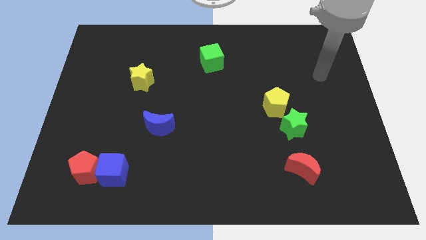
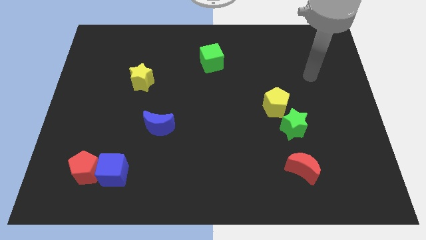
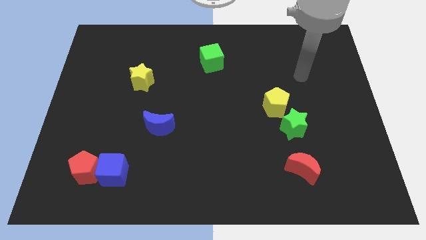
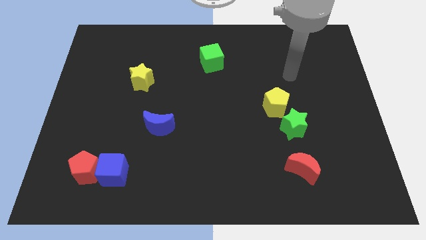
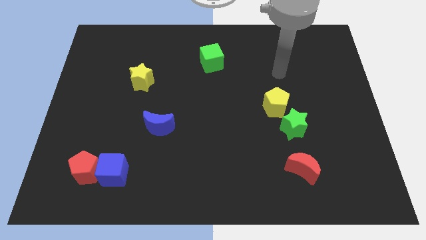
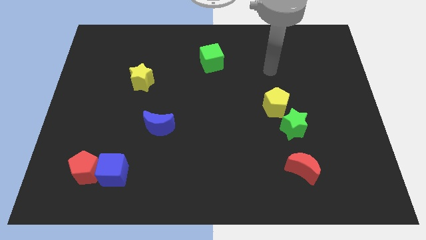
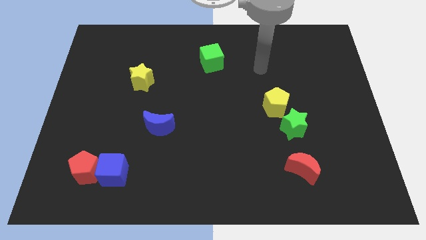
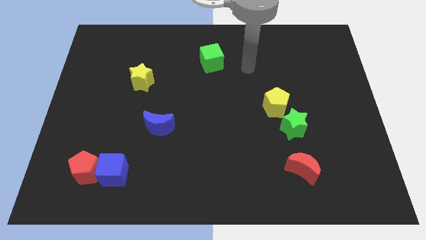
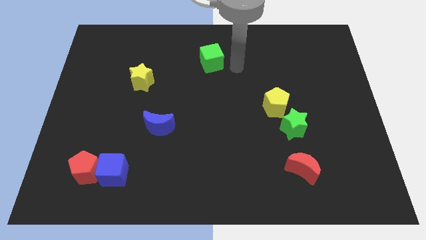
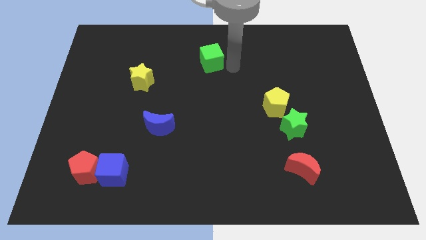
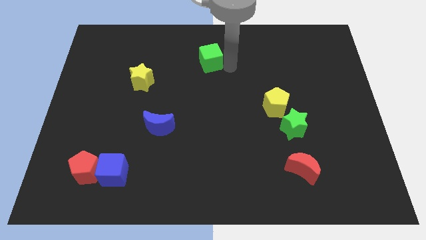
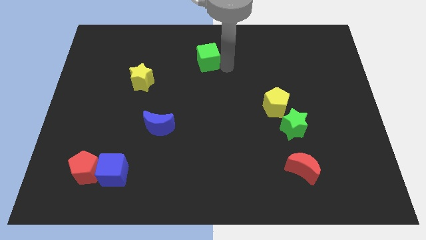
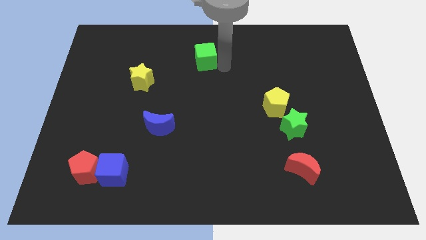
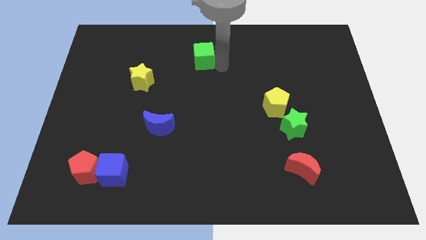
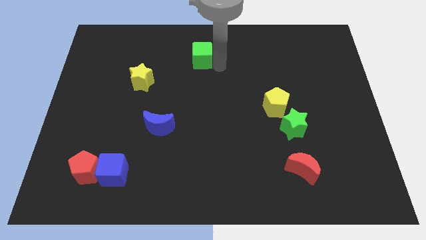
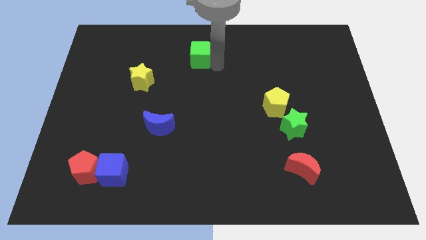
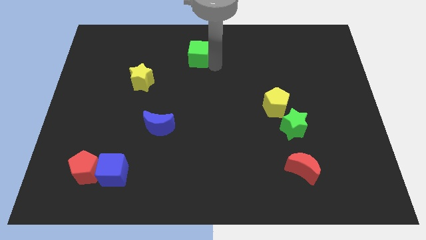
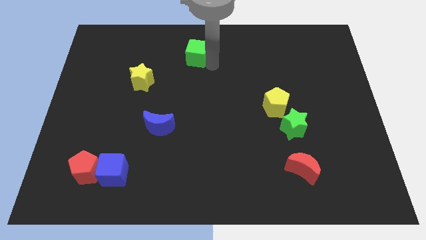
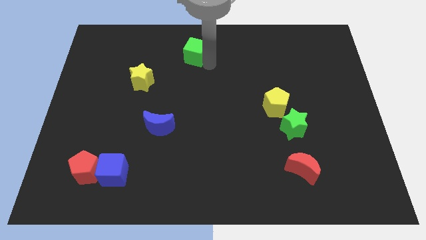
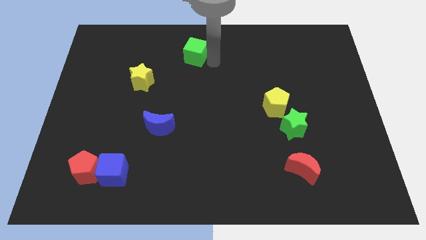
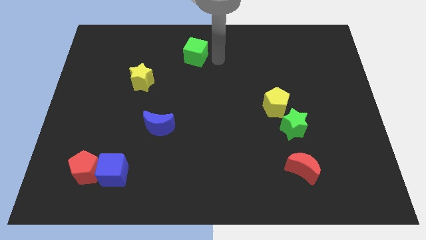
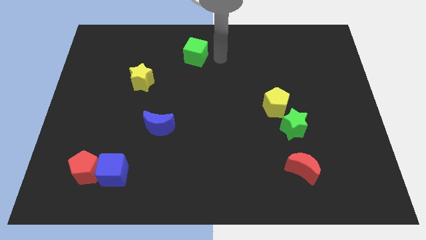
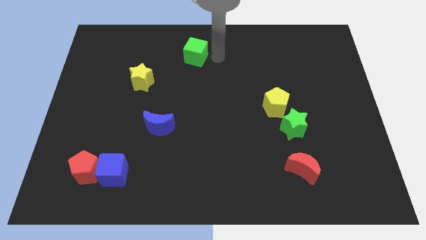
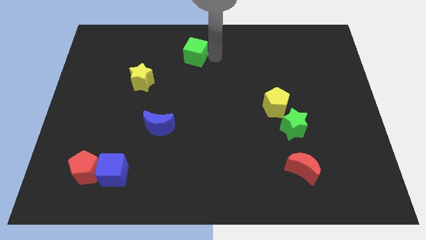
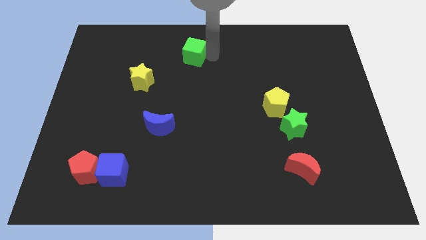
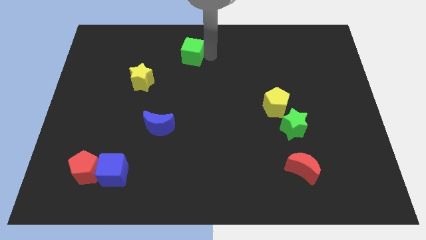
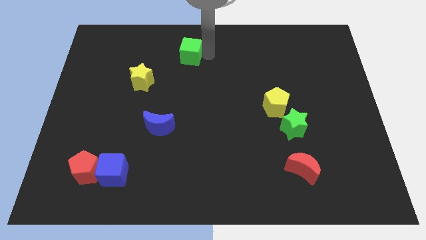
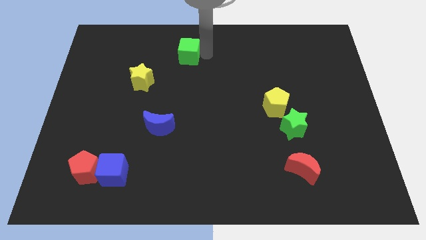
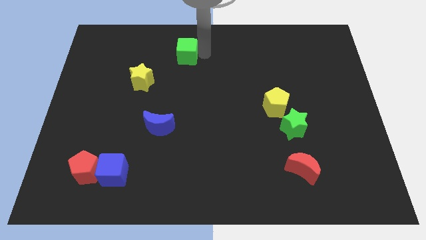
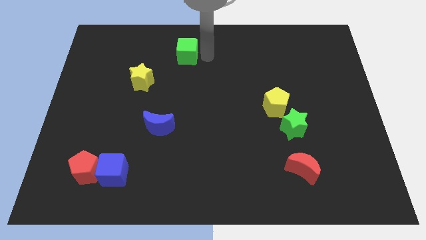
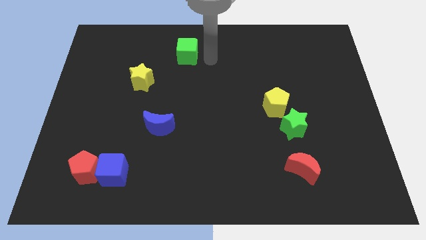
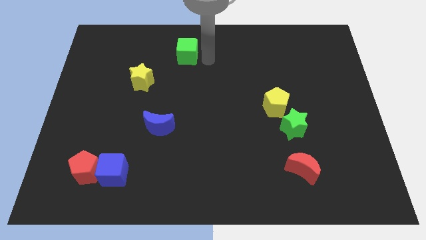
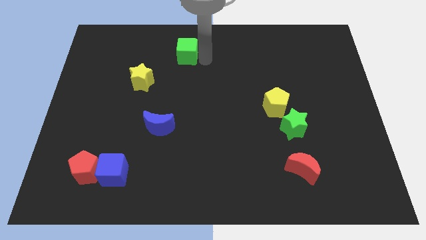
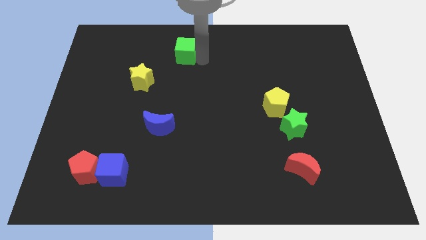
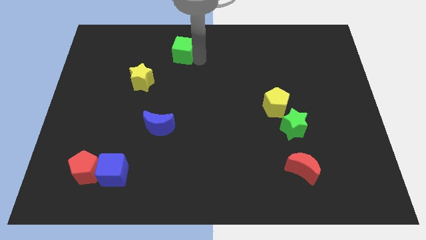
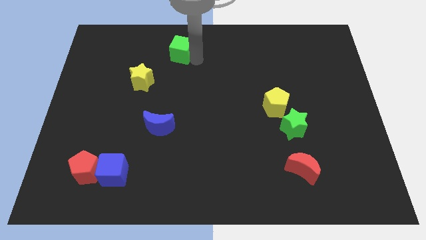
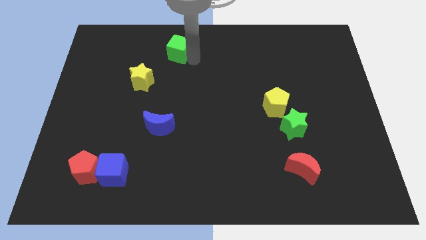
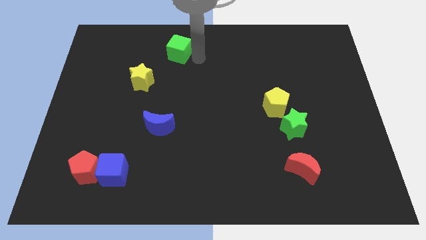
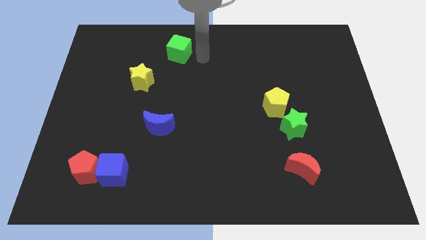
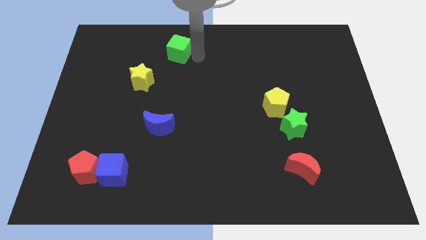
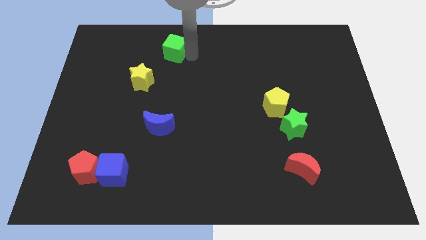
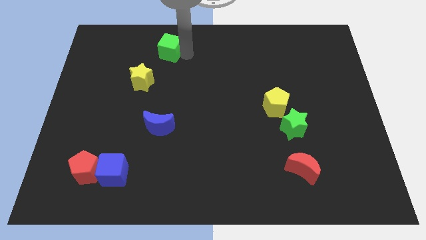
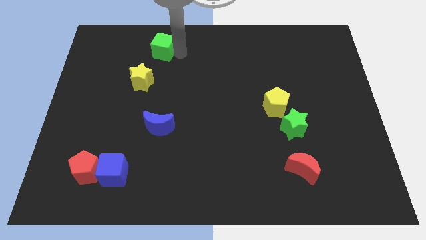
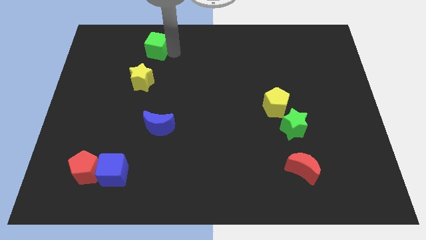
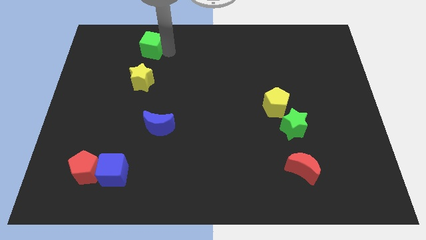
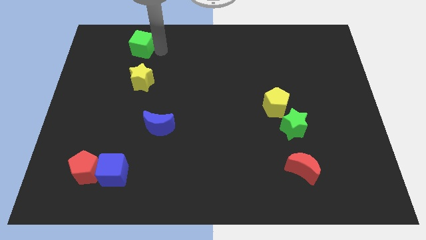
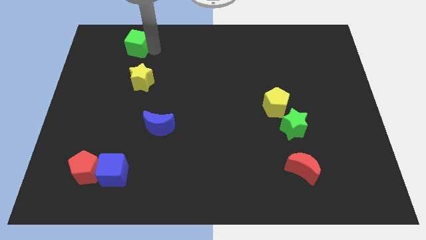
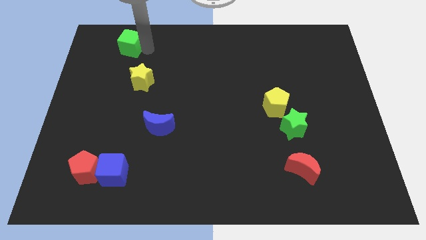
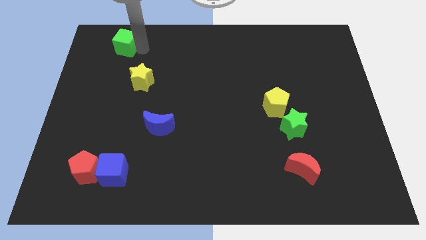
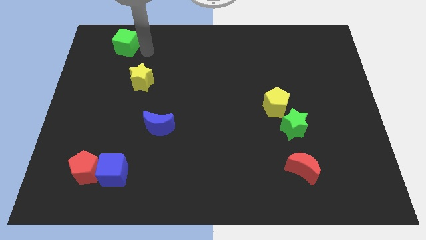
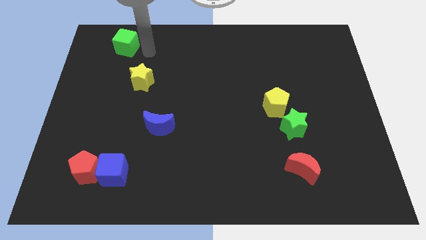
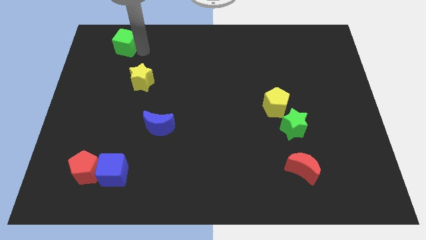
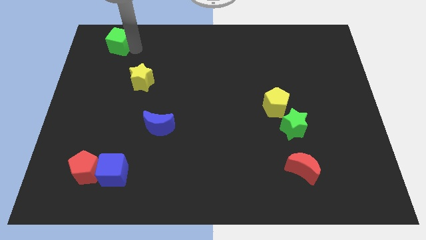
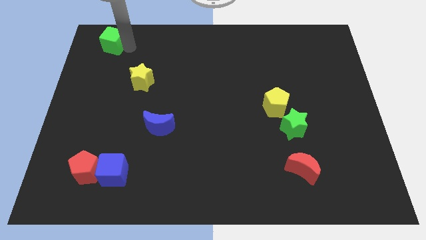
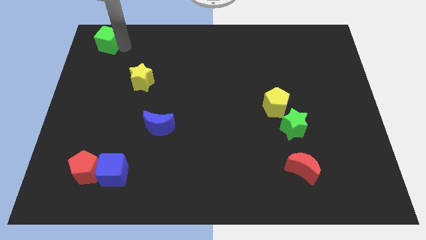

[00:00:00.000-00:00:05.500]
slide the green cube to the top left corner

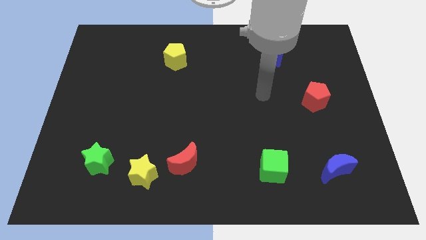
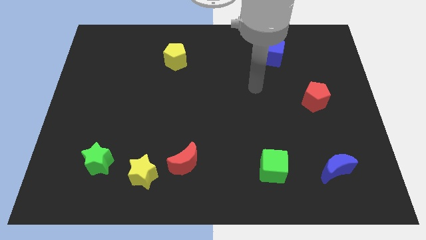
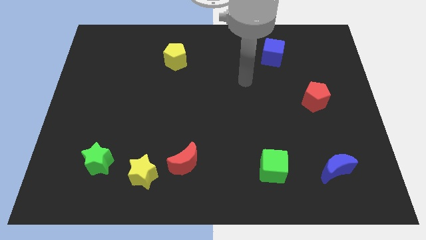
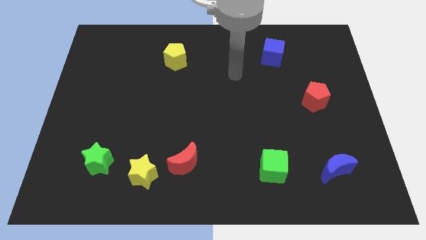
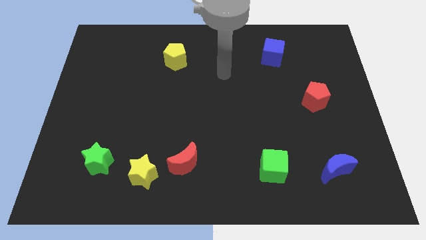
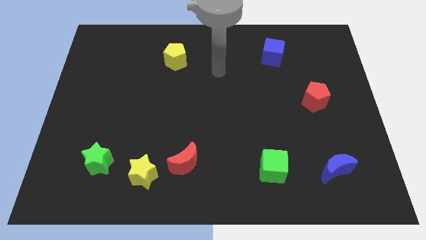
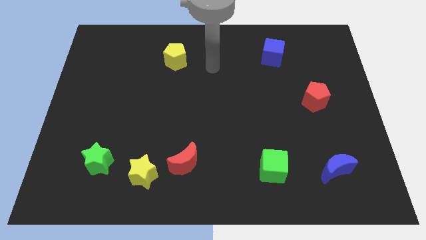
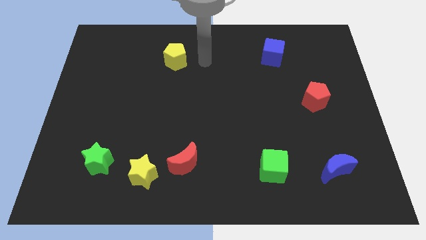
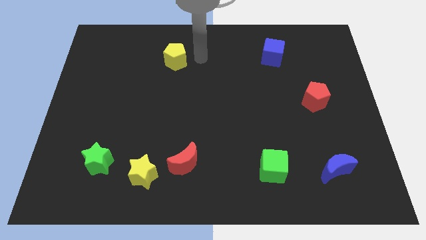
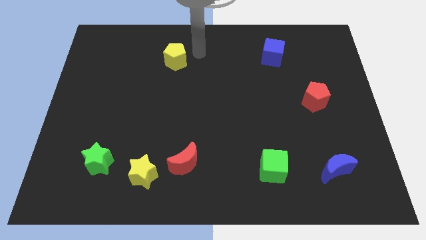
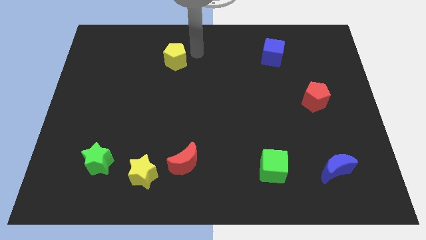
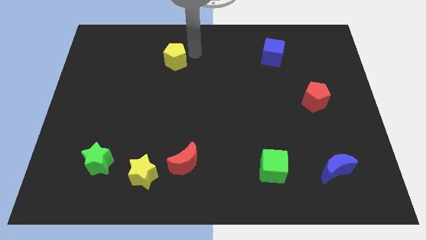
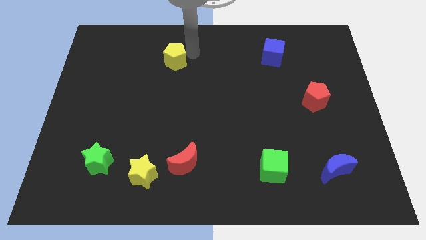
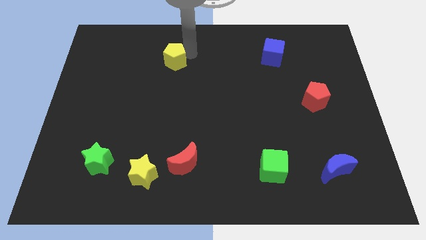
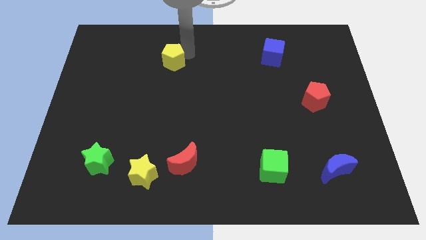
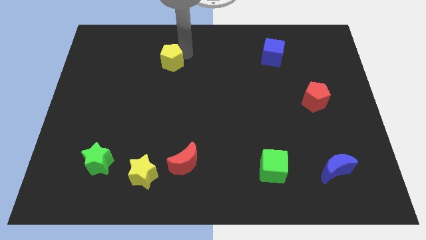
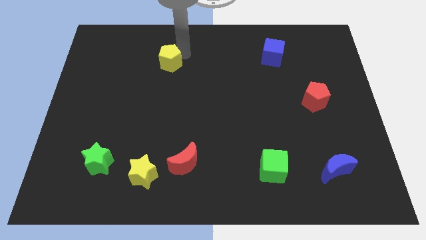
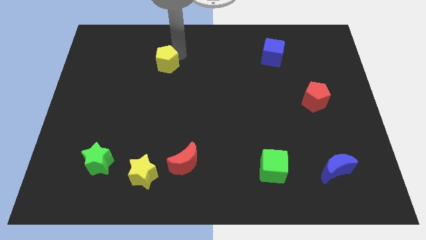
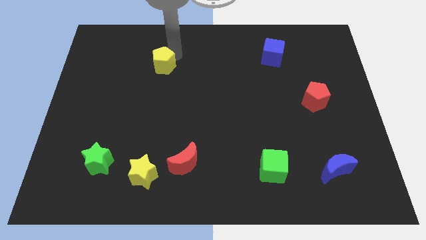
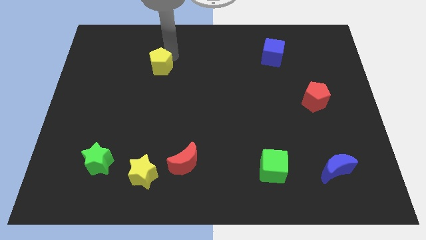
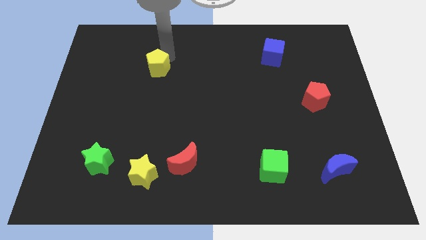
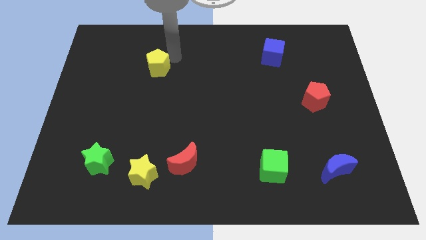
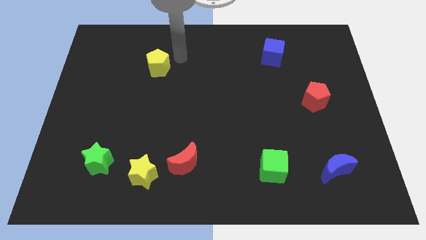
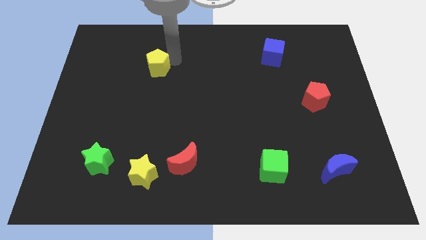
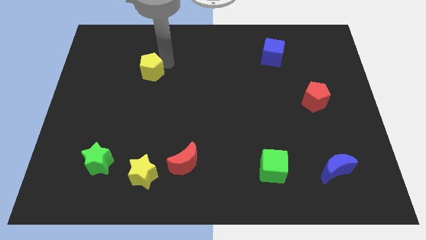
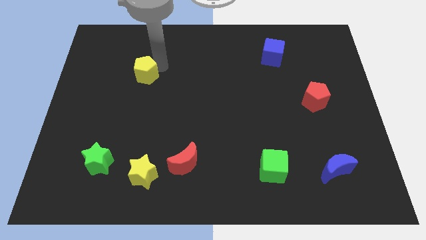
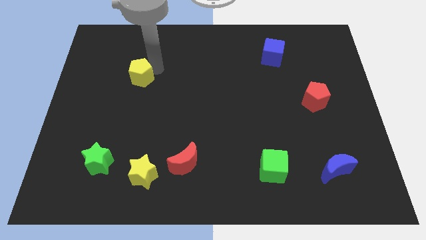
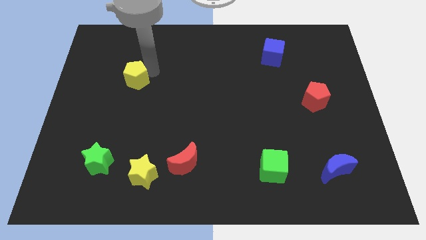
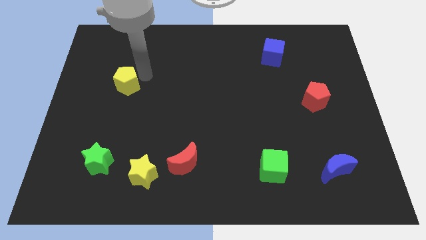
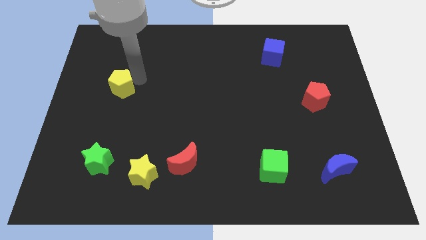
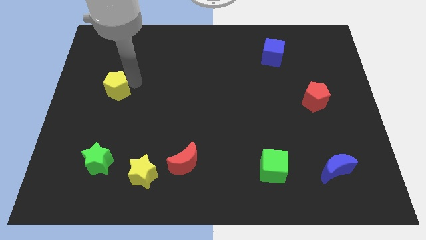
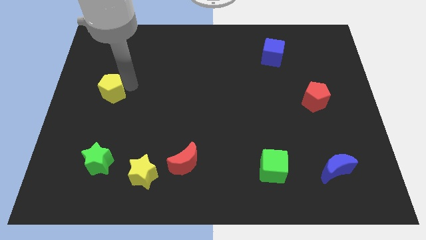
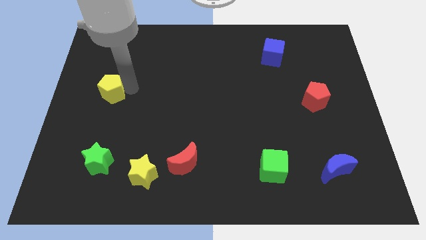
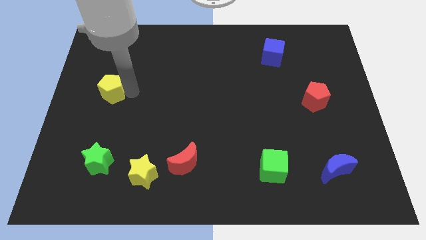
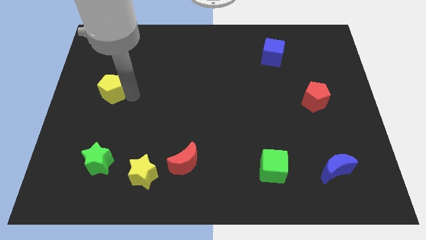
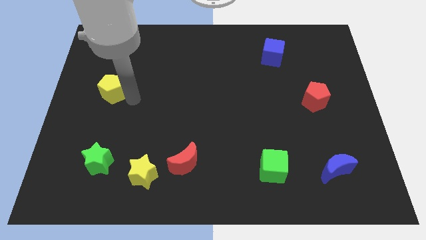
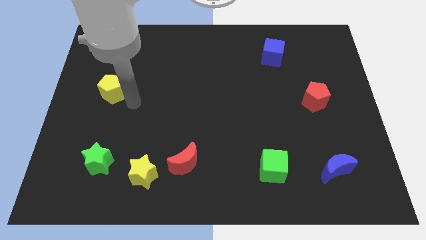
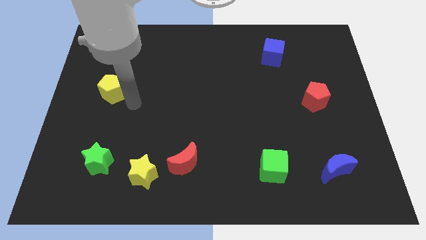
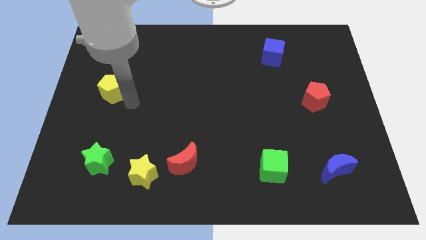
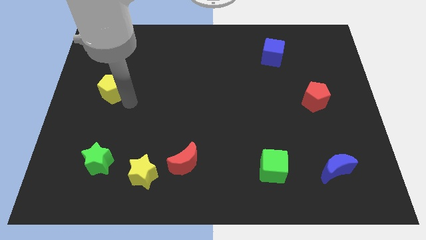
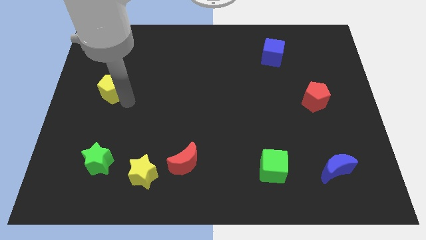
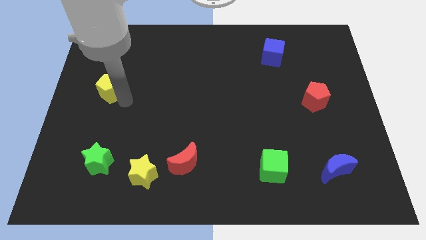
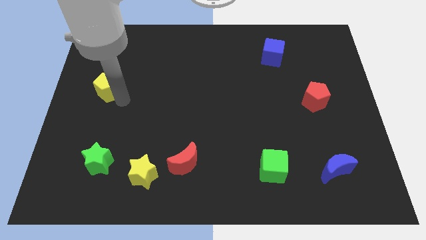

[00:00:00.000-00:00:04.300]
push the yellow pentagon to the left side
